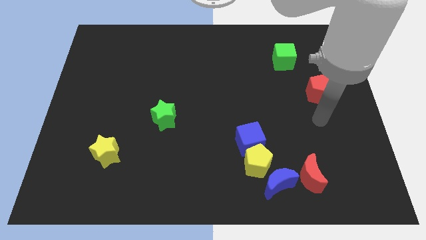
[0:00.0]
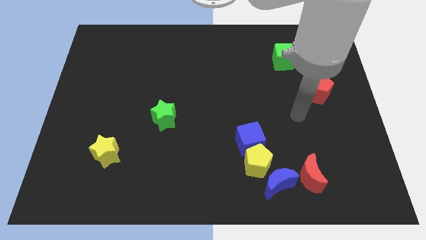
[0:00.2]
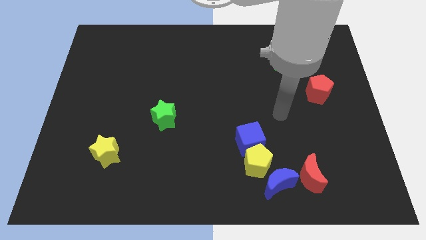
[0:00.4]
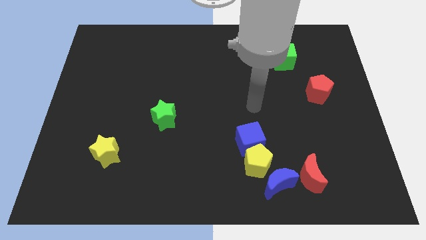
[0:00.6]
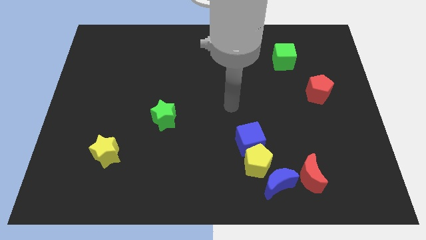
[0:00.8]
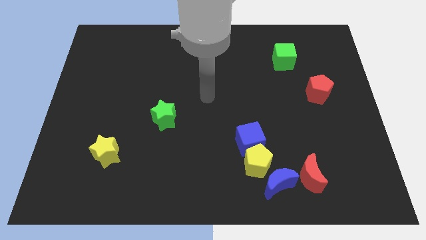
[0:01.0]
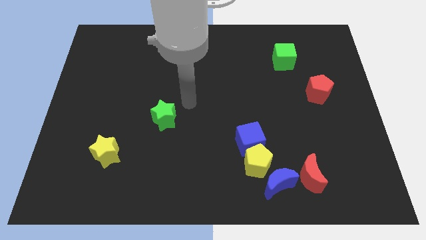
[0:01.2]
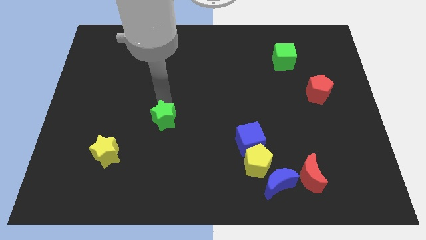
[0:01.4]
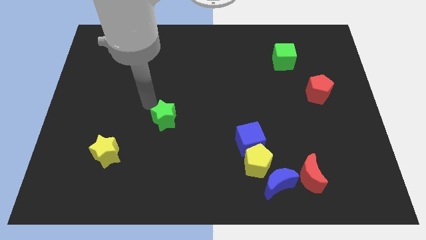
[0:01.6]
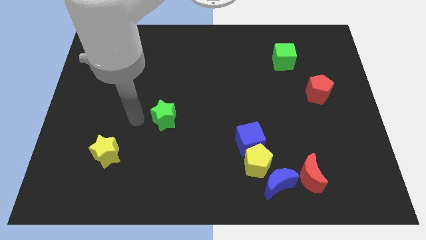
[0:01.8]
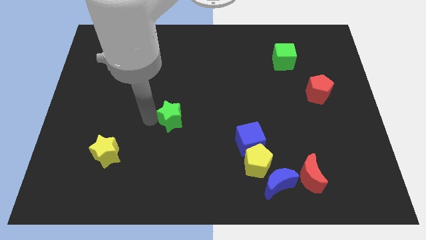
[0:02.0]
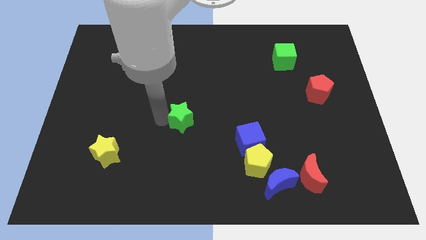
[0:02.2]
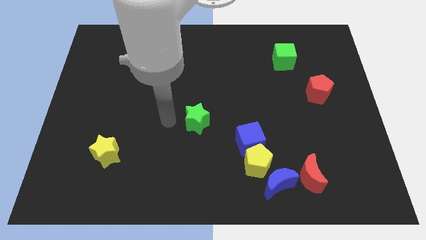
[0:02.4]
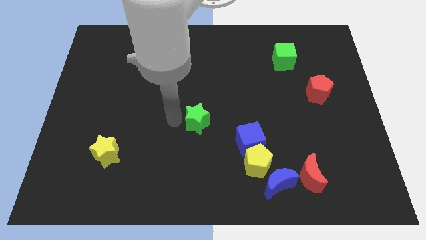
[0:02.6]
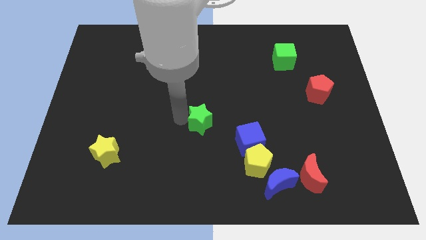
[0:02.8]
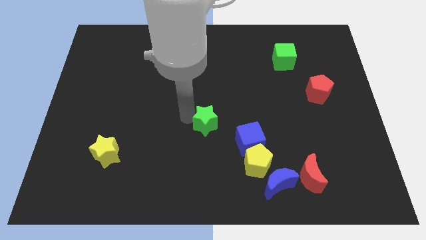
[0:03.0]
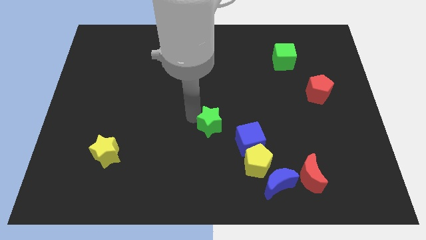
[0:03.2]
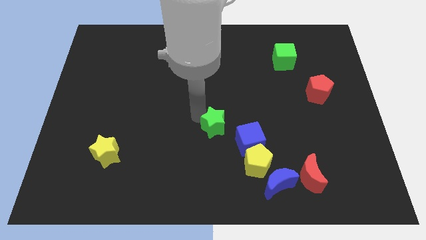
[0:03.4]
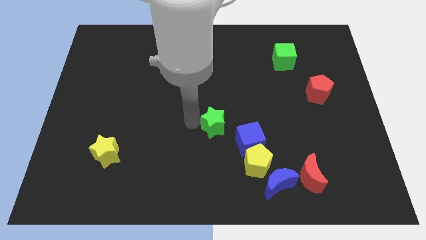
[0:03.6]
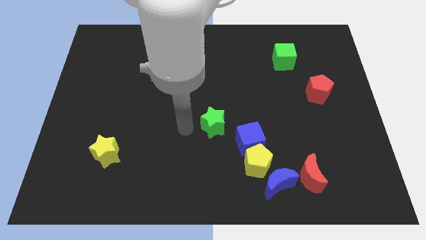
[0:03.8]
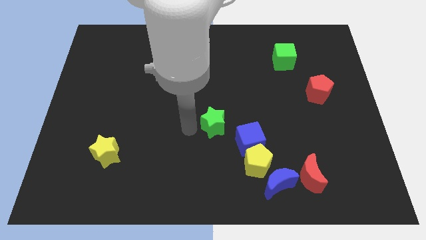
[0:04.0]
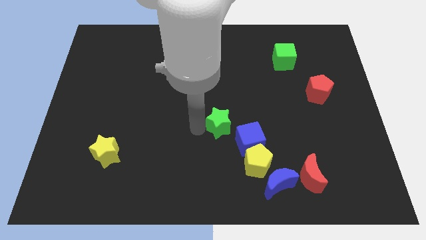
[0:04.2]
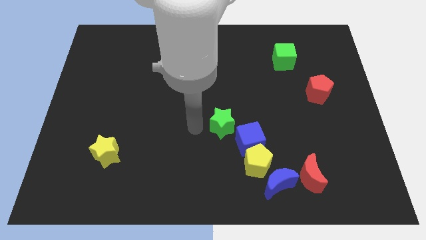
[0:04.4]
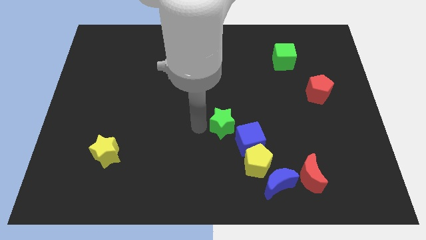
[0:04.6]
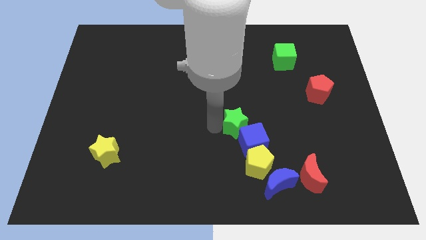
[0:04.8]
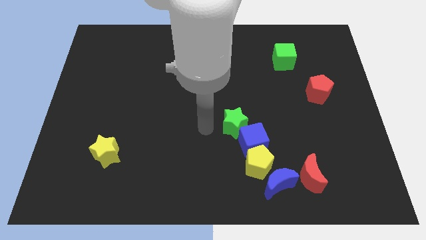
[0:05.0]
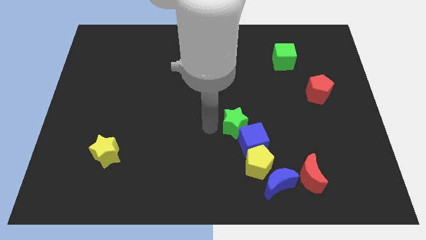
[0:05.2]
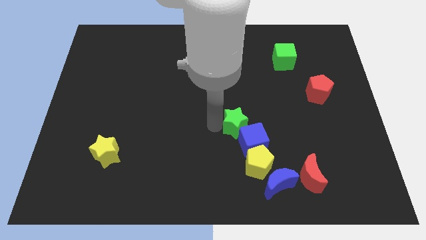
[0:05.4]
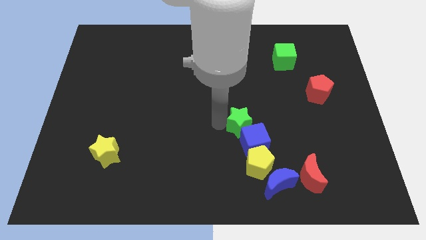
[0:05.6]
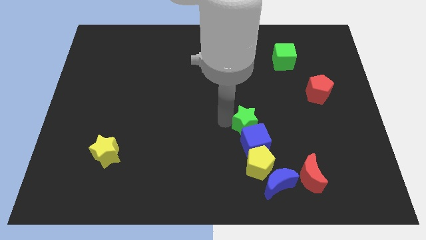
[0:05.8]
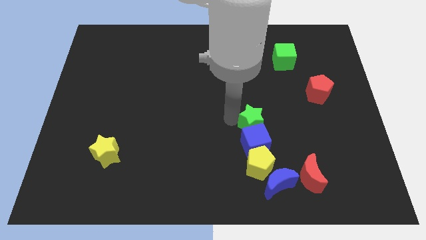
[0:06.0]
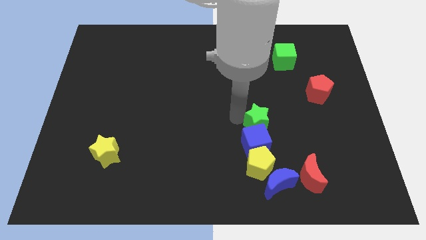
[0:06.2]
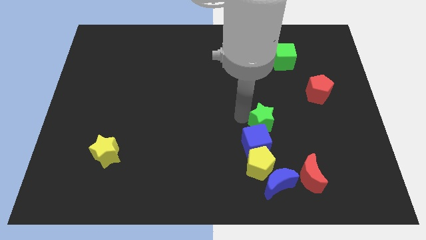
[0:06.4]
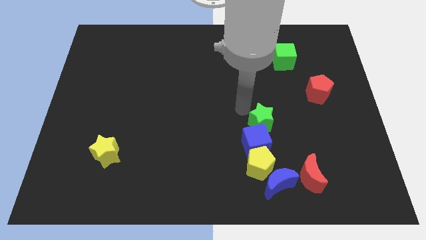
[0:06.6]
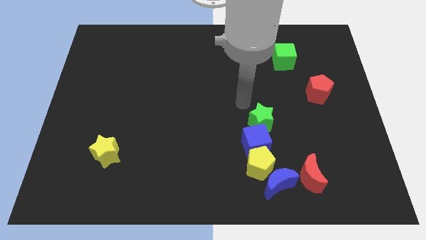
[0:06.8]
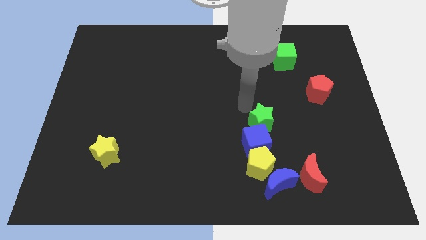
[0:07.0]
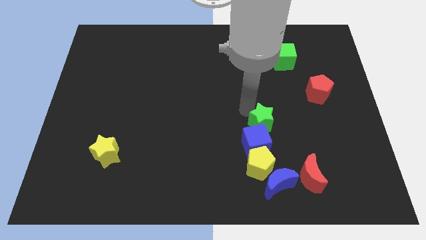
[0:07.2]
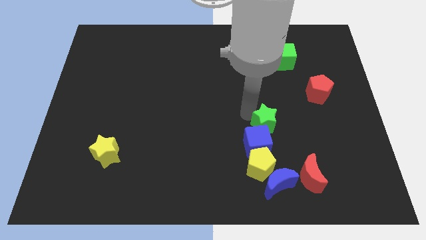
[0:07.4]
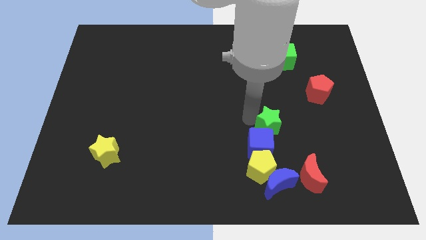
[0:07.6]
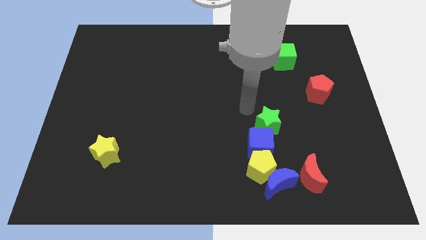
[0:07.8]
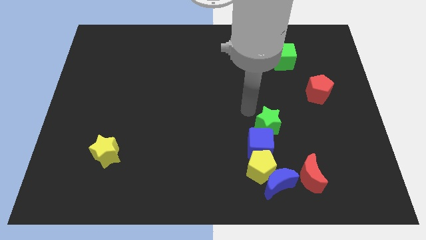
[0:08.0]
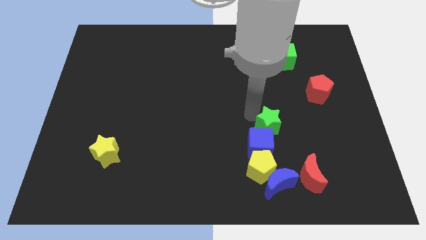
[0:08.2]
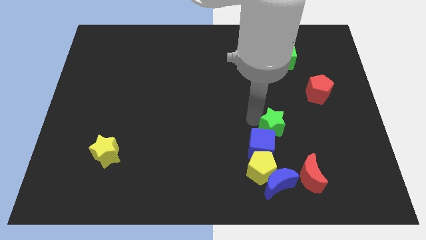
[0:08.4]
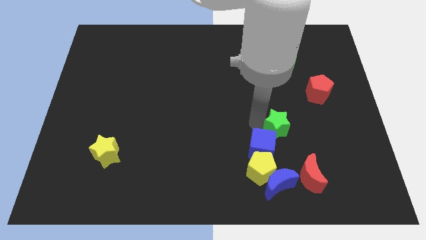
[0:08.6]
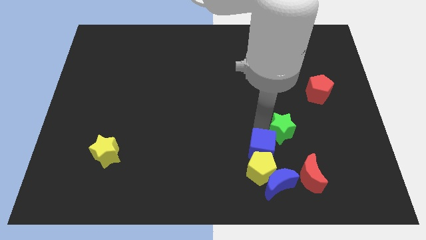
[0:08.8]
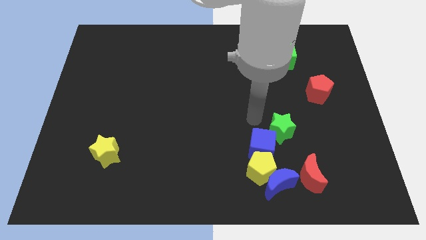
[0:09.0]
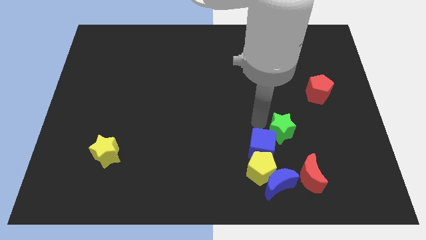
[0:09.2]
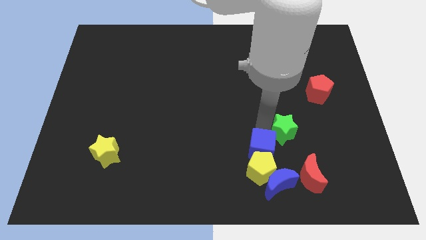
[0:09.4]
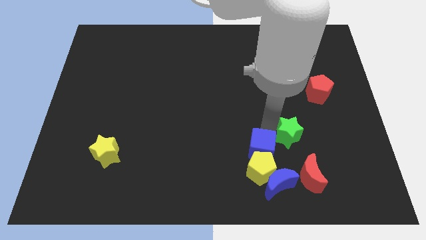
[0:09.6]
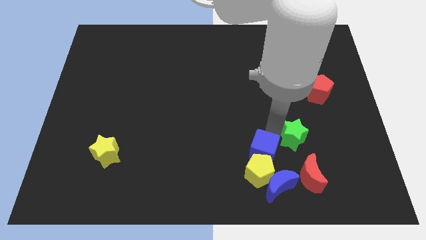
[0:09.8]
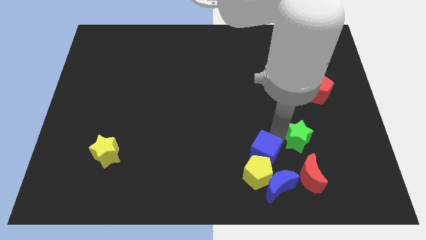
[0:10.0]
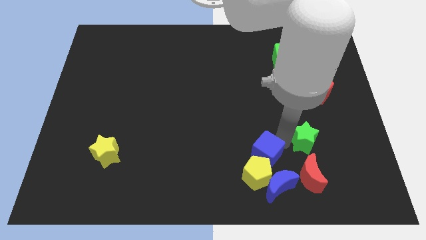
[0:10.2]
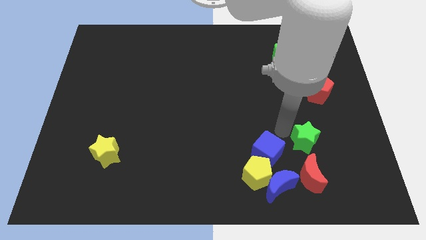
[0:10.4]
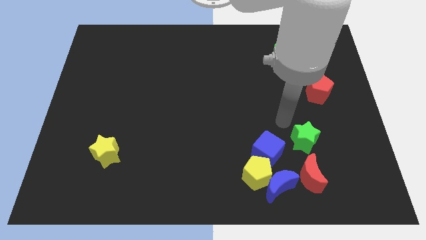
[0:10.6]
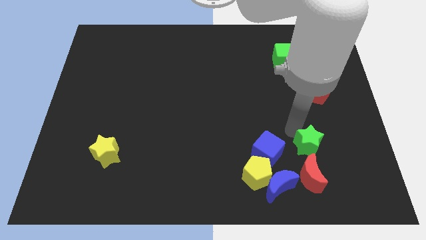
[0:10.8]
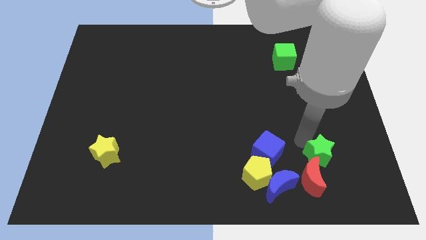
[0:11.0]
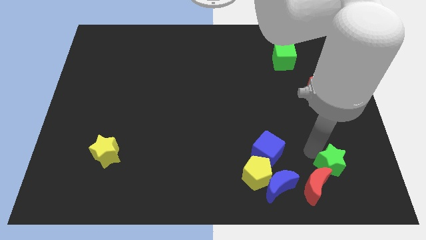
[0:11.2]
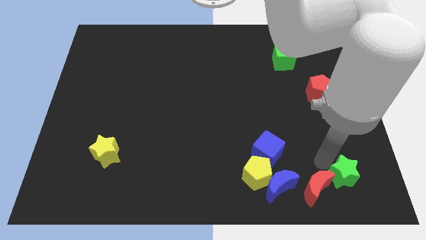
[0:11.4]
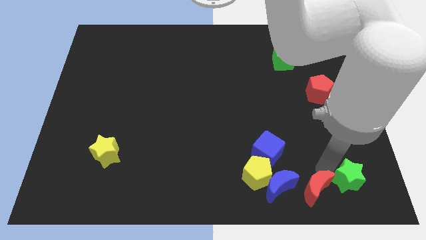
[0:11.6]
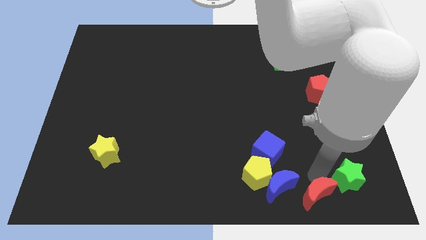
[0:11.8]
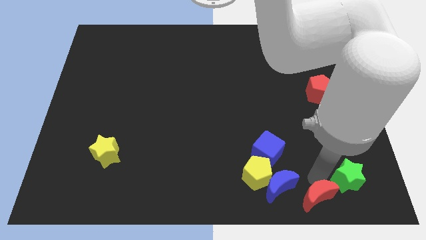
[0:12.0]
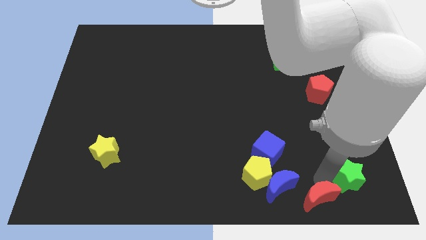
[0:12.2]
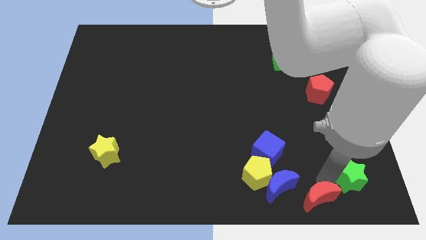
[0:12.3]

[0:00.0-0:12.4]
put the green star to the bottom right corner
